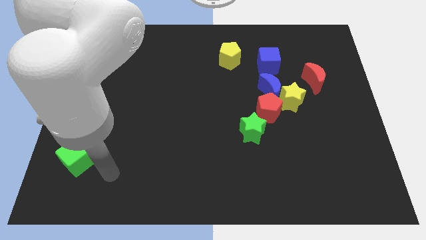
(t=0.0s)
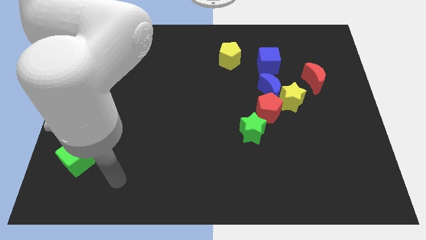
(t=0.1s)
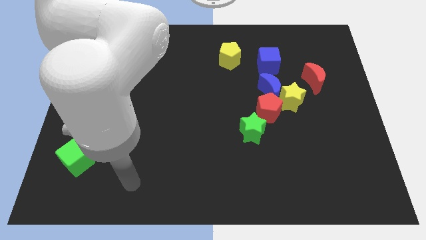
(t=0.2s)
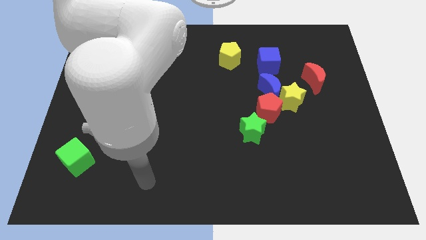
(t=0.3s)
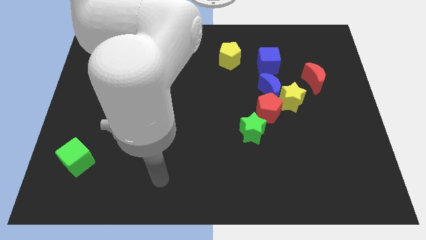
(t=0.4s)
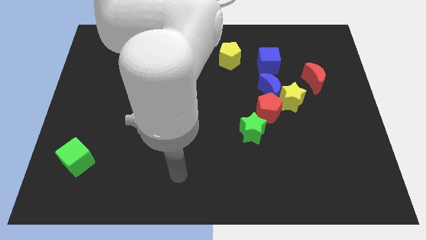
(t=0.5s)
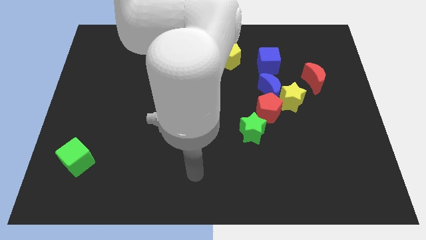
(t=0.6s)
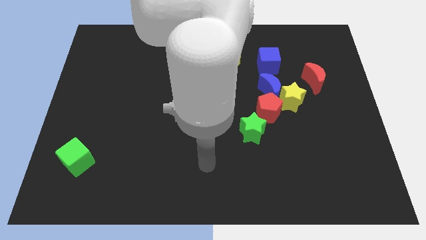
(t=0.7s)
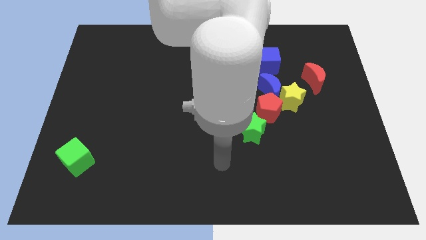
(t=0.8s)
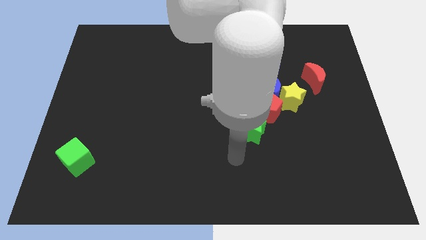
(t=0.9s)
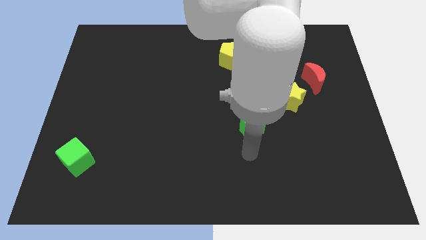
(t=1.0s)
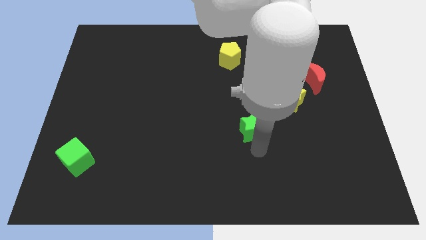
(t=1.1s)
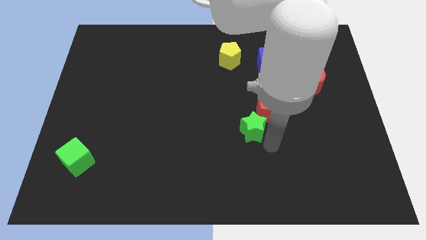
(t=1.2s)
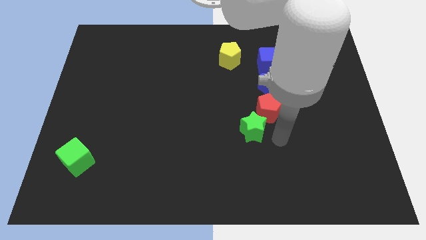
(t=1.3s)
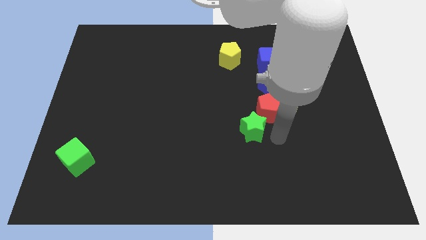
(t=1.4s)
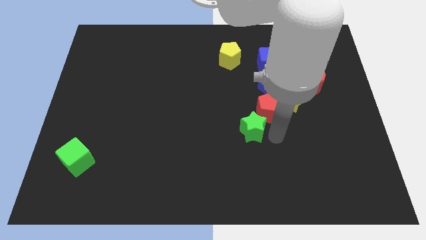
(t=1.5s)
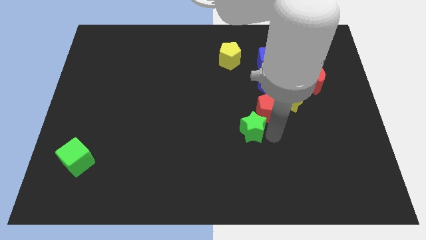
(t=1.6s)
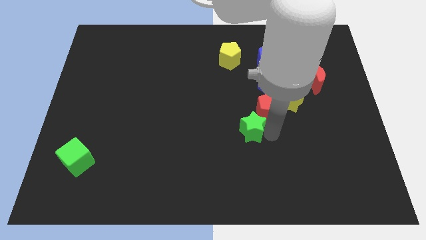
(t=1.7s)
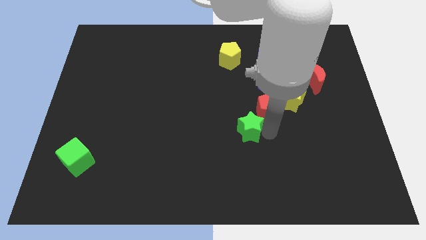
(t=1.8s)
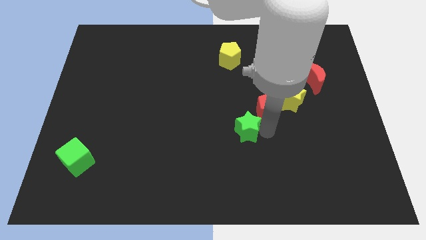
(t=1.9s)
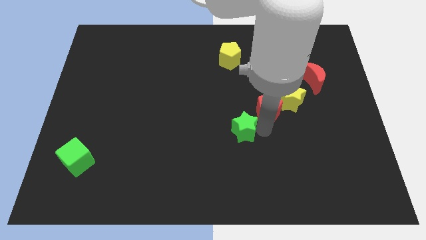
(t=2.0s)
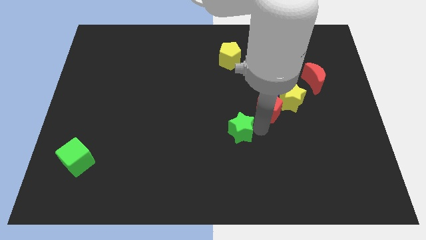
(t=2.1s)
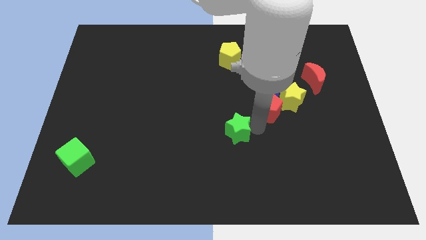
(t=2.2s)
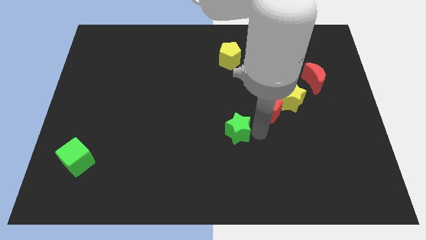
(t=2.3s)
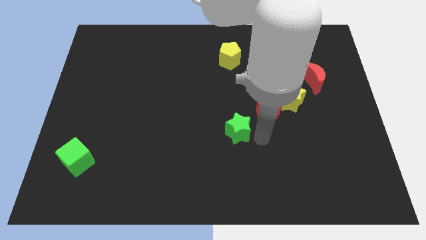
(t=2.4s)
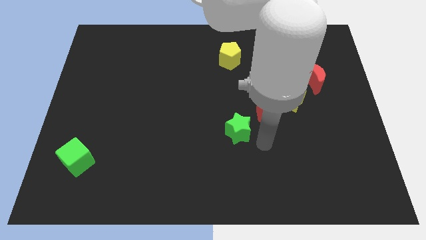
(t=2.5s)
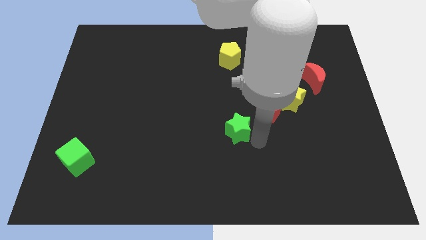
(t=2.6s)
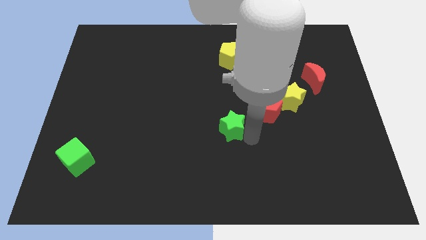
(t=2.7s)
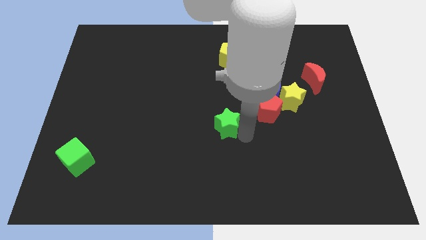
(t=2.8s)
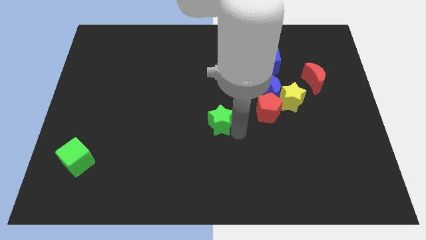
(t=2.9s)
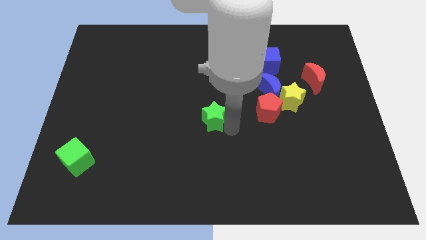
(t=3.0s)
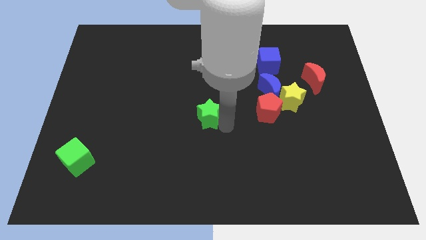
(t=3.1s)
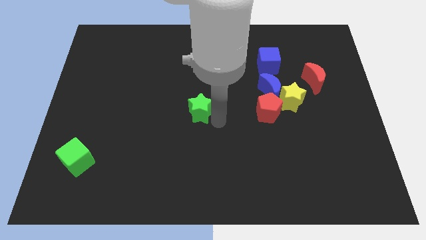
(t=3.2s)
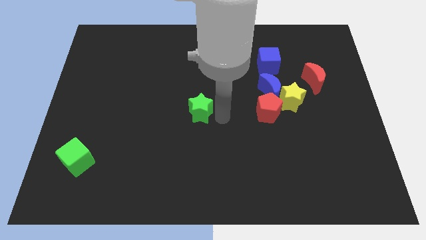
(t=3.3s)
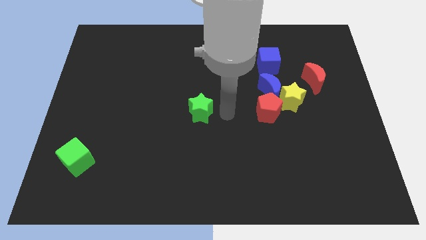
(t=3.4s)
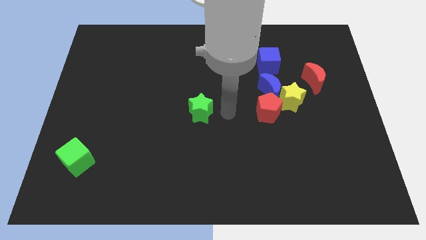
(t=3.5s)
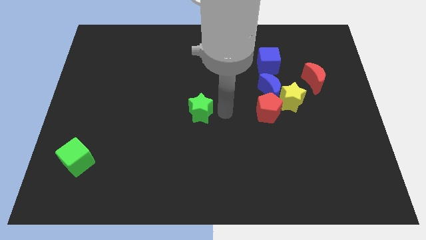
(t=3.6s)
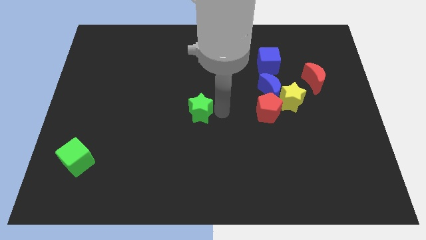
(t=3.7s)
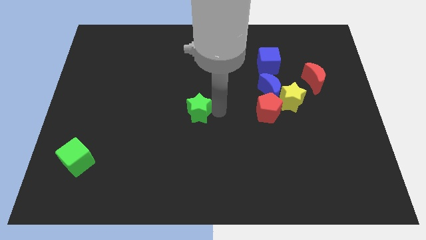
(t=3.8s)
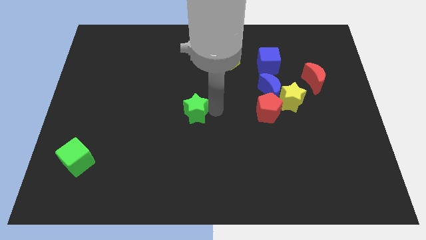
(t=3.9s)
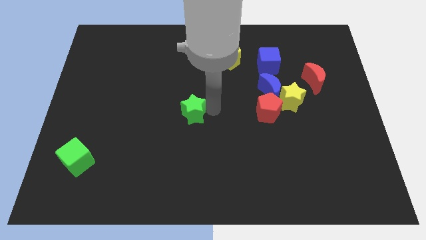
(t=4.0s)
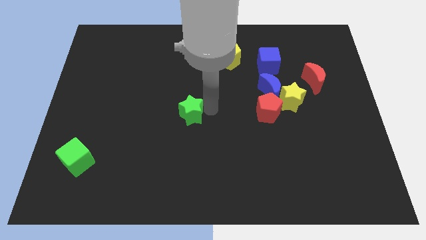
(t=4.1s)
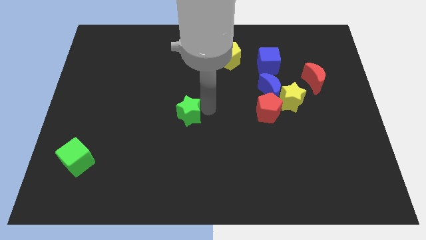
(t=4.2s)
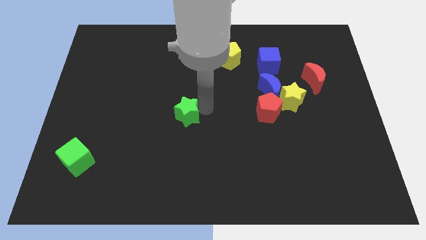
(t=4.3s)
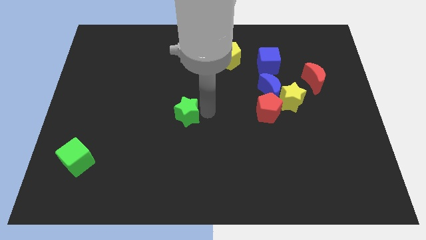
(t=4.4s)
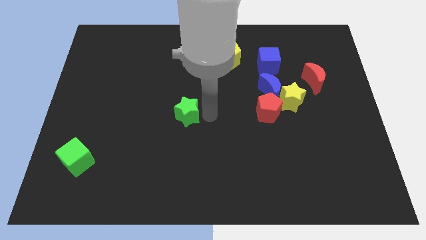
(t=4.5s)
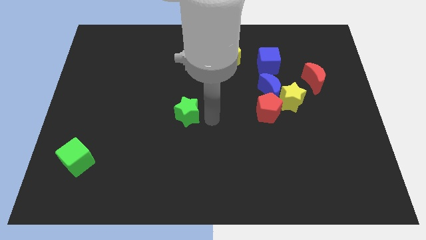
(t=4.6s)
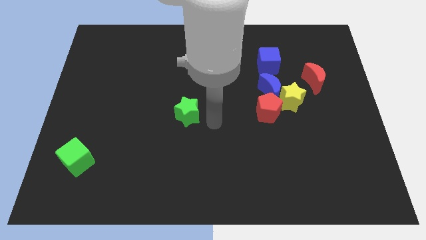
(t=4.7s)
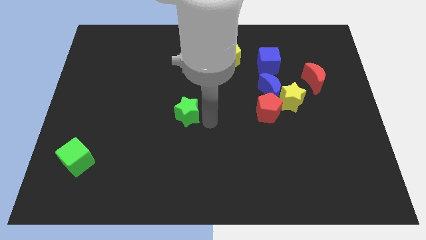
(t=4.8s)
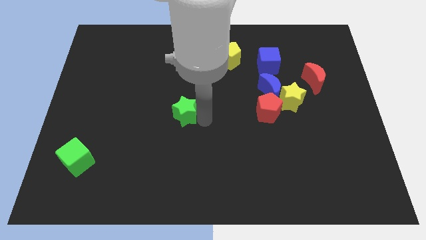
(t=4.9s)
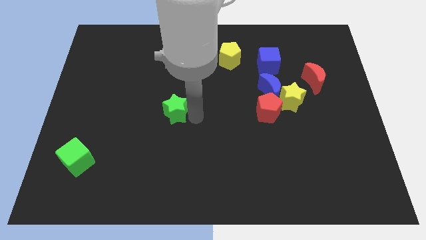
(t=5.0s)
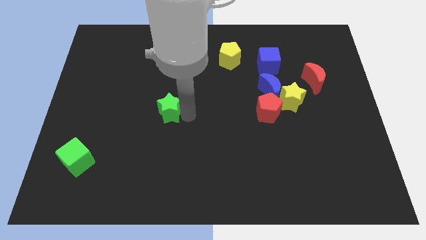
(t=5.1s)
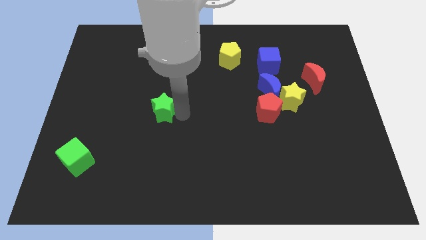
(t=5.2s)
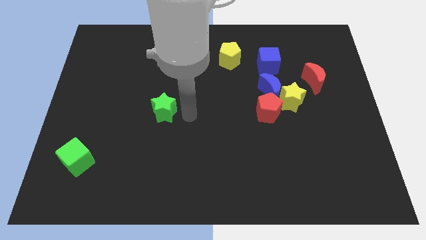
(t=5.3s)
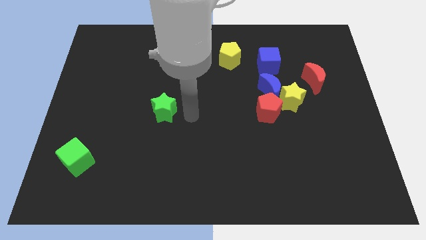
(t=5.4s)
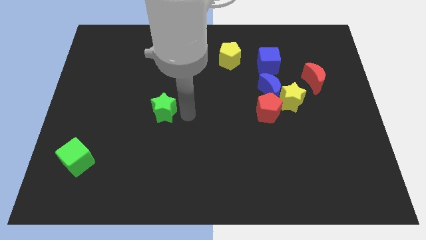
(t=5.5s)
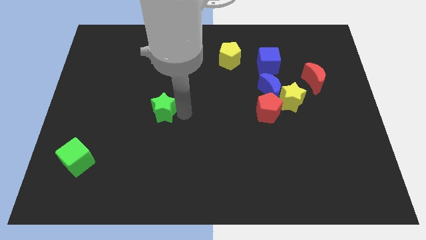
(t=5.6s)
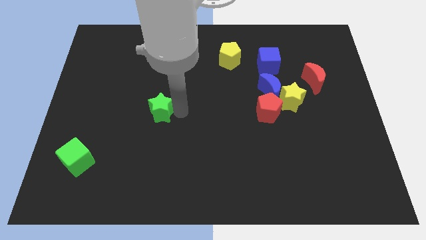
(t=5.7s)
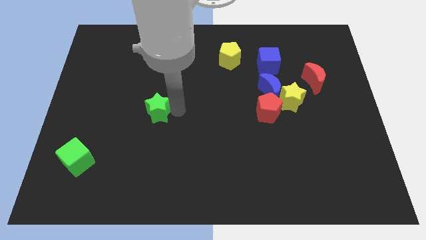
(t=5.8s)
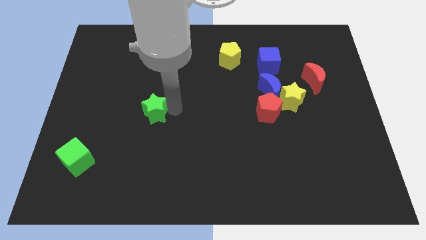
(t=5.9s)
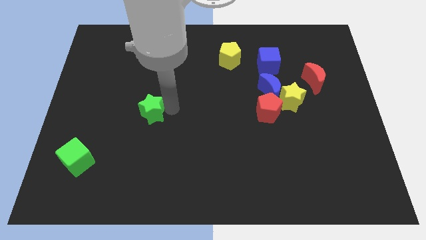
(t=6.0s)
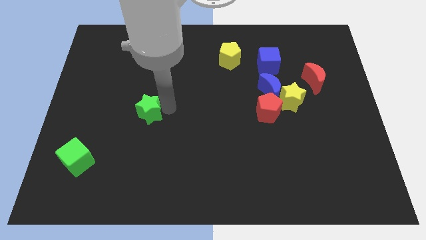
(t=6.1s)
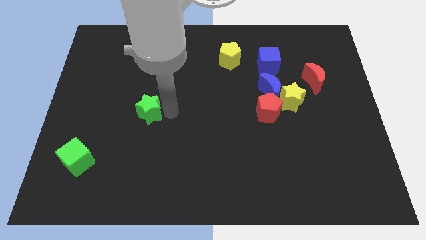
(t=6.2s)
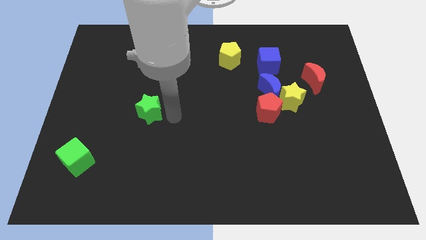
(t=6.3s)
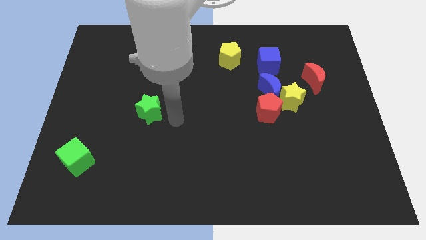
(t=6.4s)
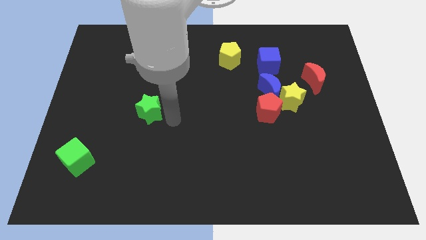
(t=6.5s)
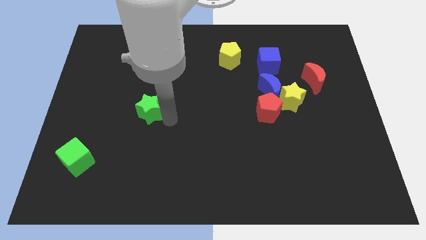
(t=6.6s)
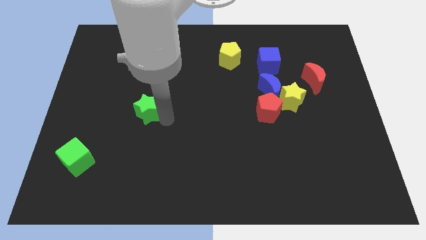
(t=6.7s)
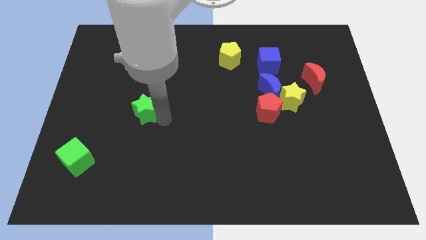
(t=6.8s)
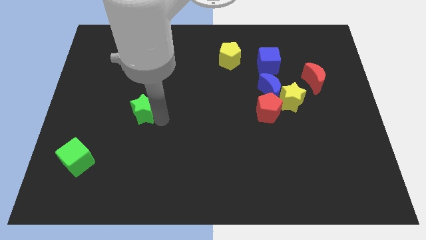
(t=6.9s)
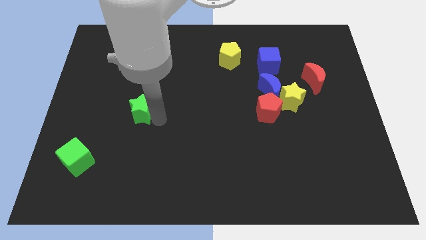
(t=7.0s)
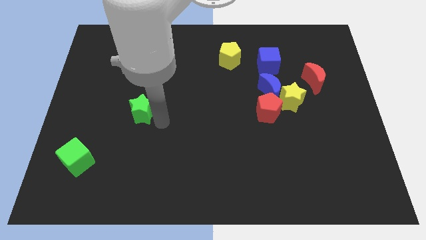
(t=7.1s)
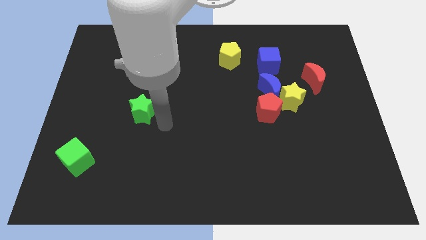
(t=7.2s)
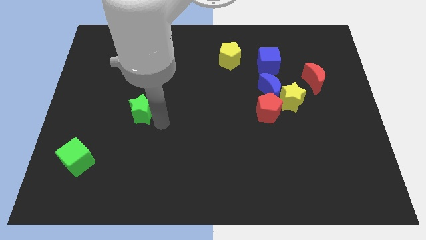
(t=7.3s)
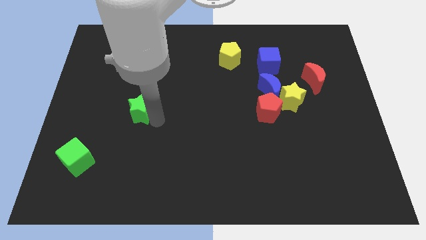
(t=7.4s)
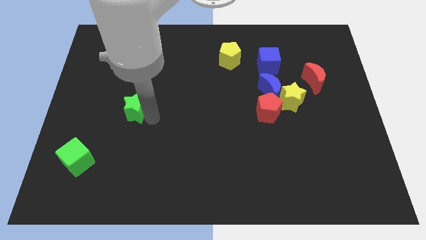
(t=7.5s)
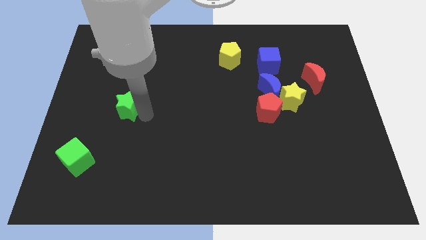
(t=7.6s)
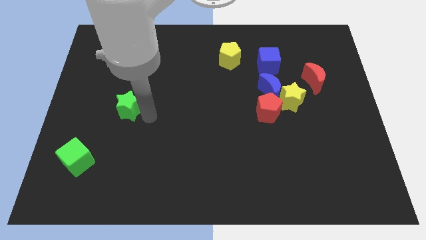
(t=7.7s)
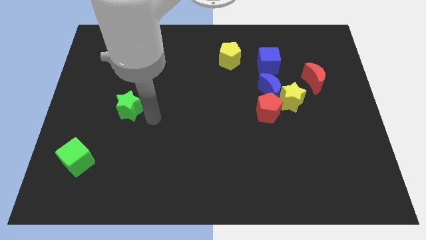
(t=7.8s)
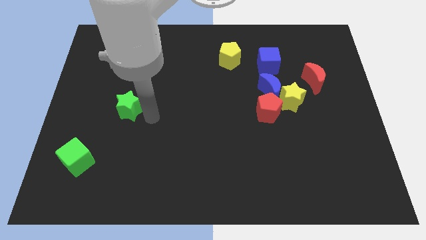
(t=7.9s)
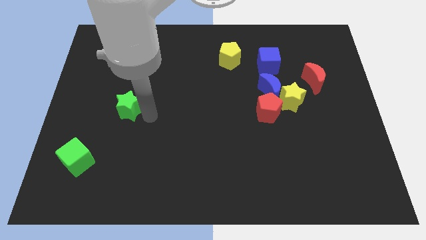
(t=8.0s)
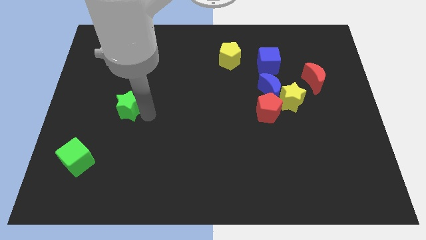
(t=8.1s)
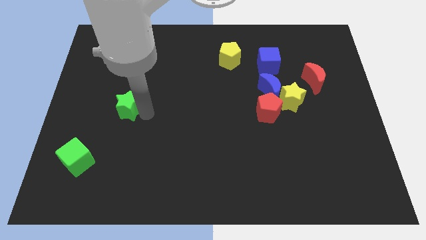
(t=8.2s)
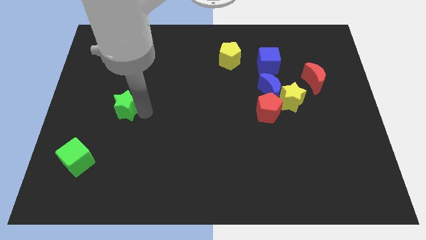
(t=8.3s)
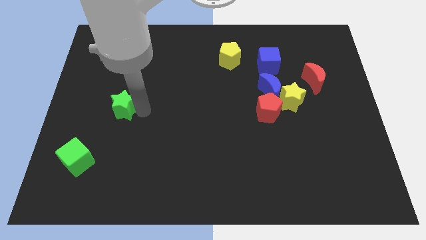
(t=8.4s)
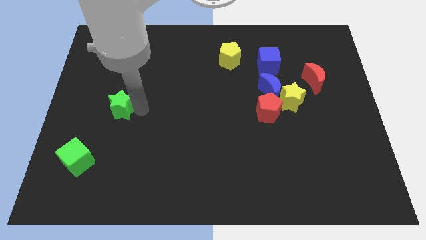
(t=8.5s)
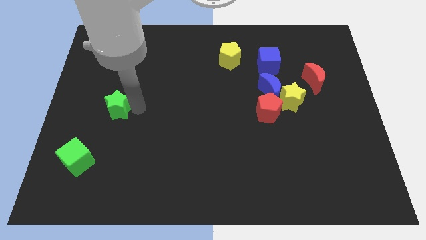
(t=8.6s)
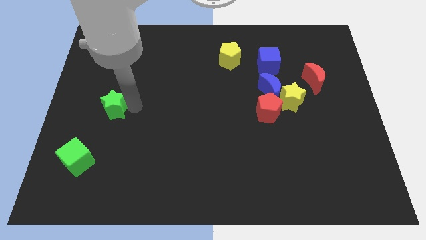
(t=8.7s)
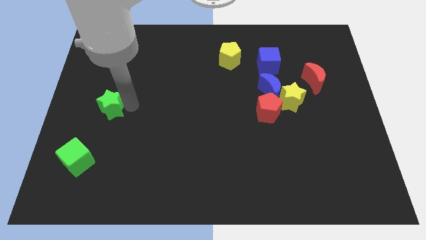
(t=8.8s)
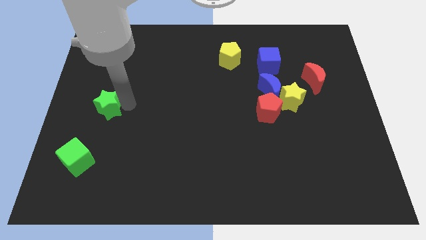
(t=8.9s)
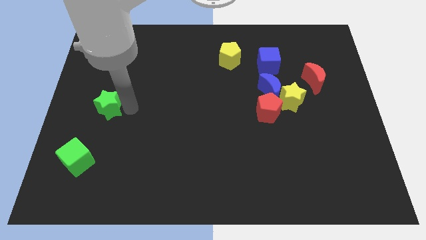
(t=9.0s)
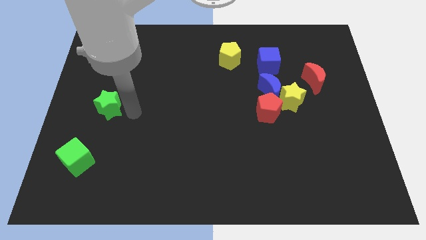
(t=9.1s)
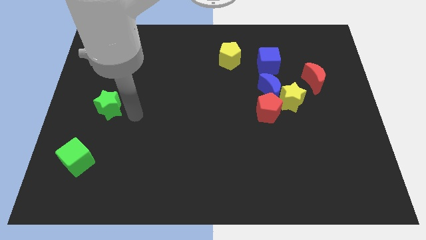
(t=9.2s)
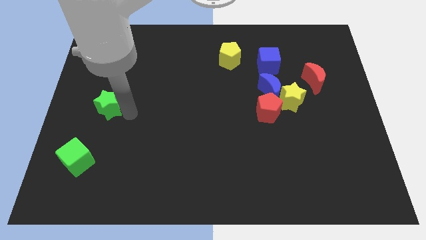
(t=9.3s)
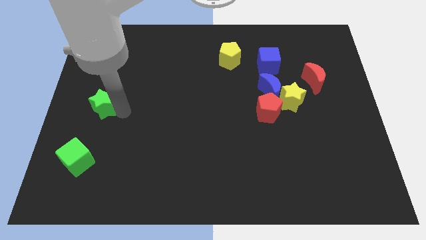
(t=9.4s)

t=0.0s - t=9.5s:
push the green star to the left side of the board
